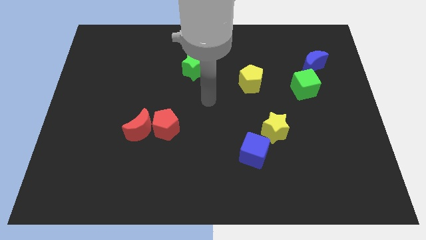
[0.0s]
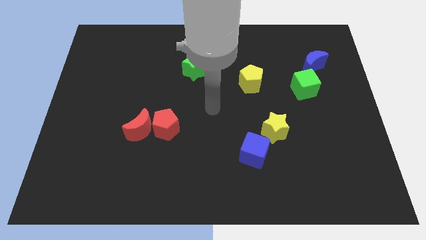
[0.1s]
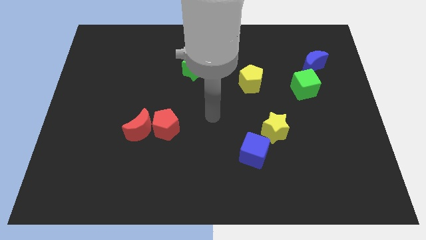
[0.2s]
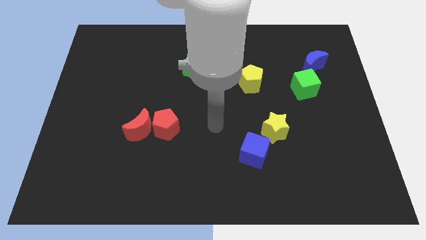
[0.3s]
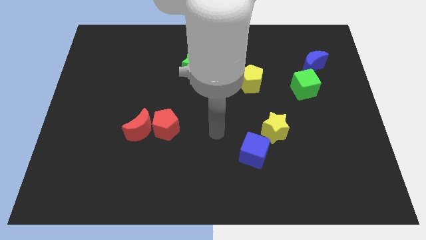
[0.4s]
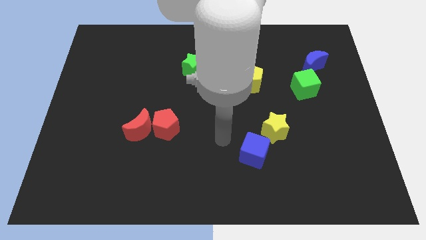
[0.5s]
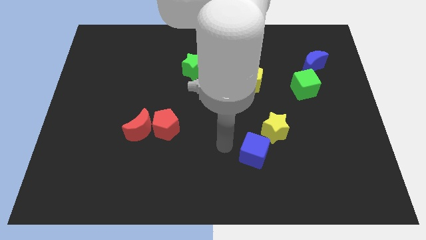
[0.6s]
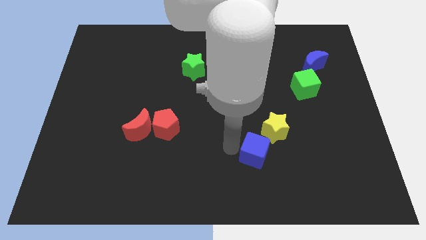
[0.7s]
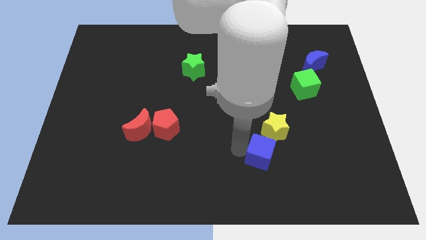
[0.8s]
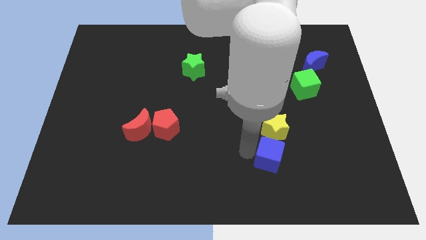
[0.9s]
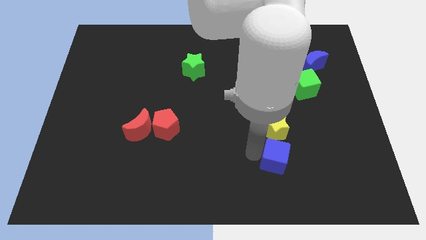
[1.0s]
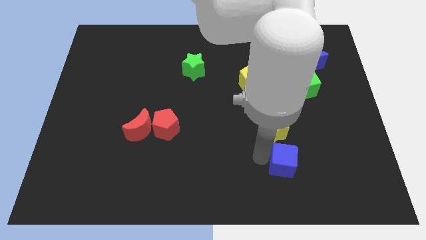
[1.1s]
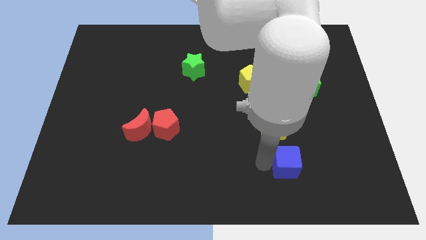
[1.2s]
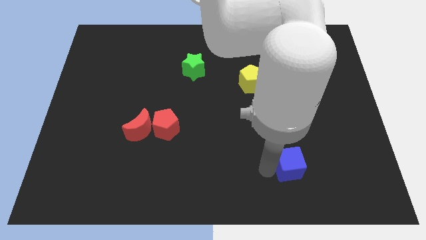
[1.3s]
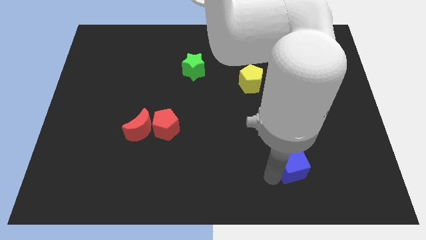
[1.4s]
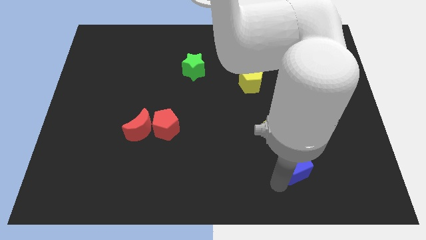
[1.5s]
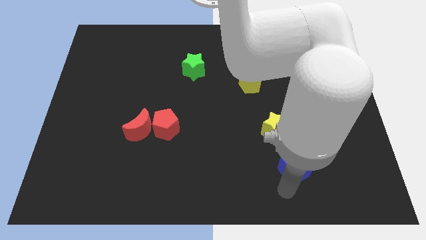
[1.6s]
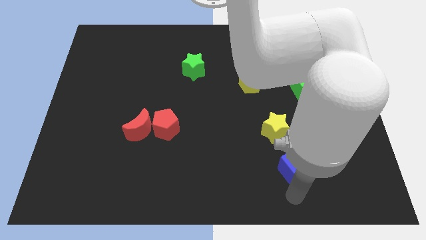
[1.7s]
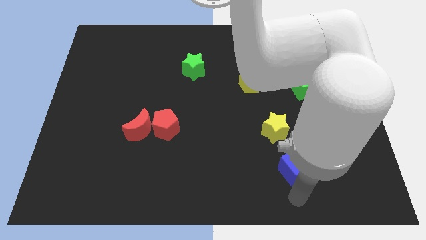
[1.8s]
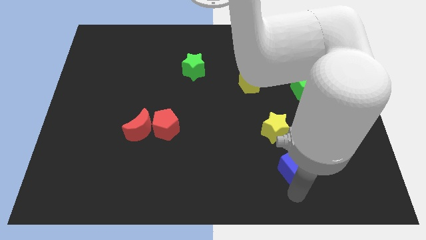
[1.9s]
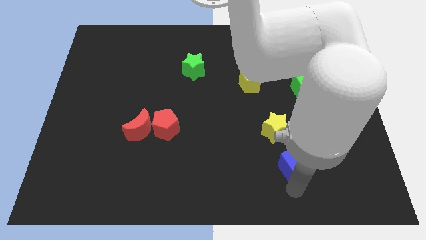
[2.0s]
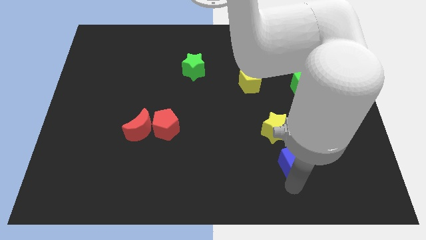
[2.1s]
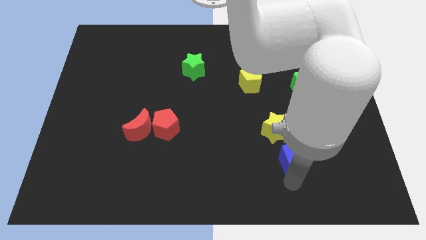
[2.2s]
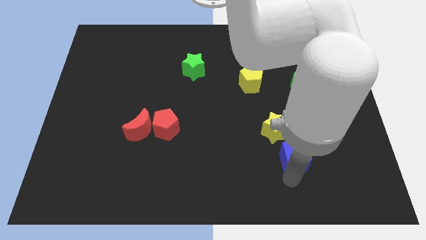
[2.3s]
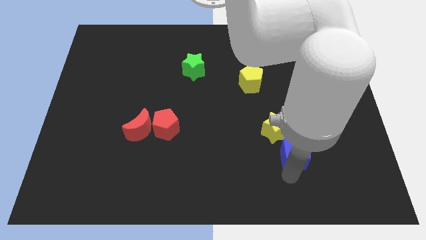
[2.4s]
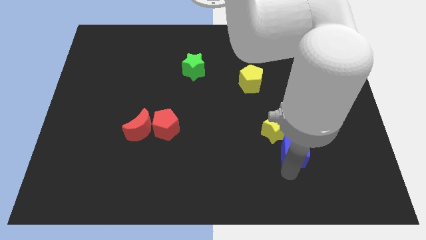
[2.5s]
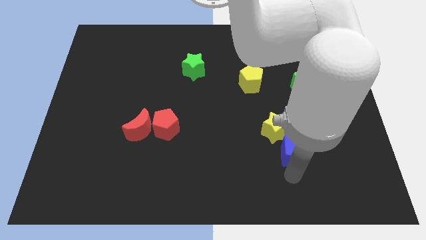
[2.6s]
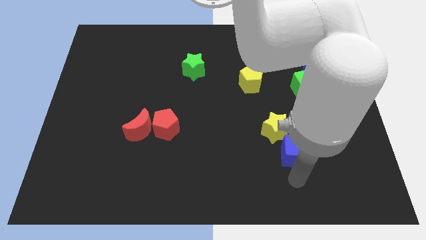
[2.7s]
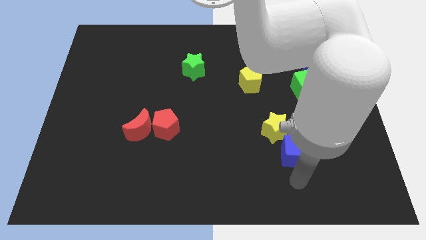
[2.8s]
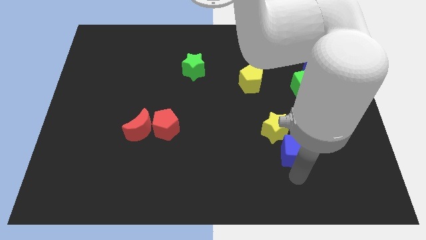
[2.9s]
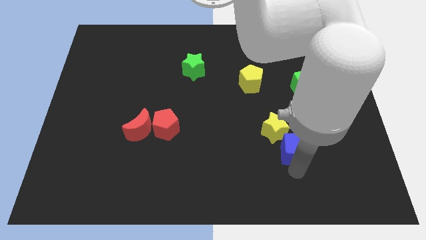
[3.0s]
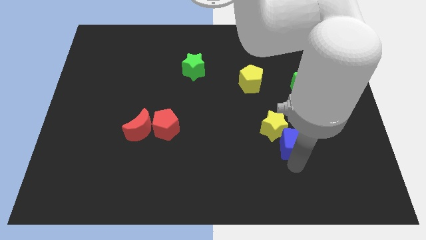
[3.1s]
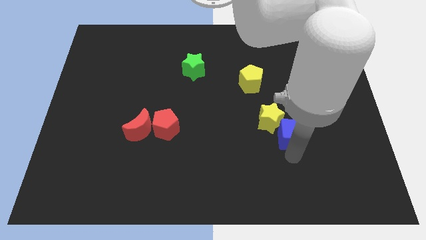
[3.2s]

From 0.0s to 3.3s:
push the blue cube diagonally upwards and to the right a little bit

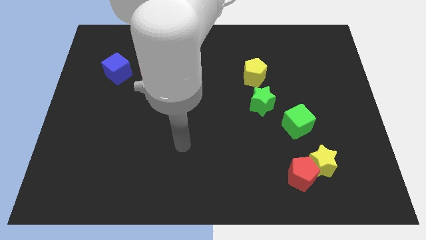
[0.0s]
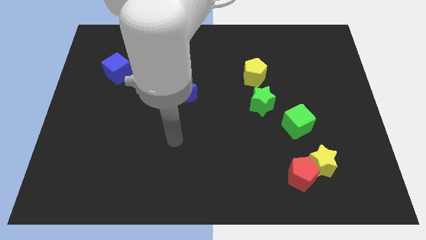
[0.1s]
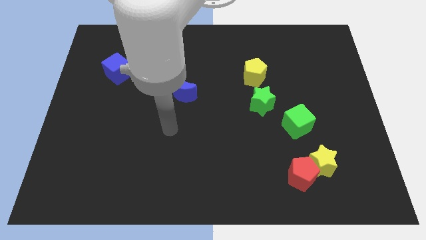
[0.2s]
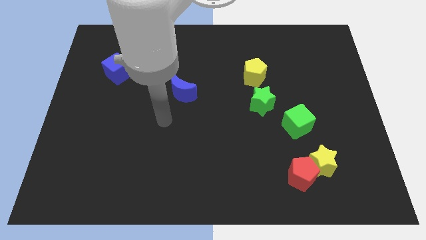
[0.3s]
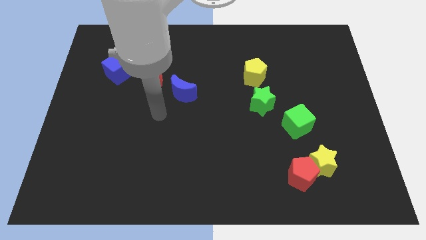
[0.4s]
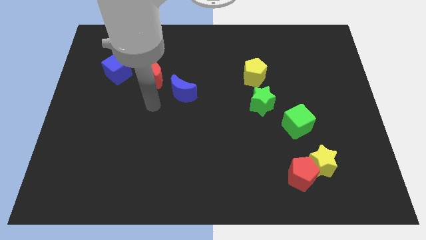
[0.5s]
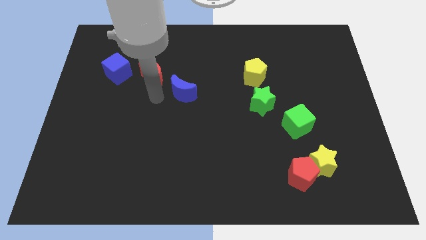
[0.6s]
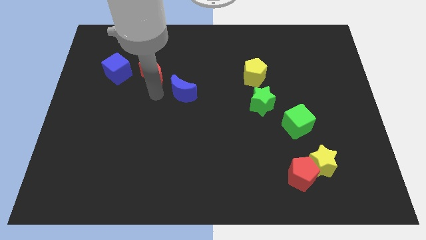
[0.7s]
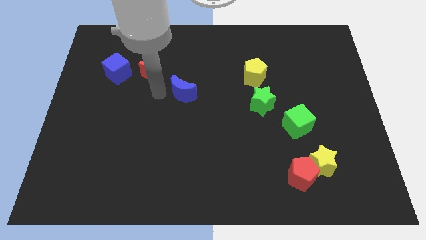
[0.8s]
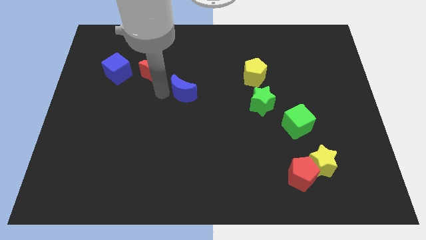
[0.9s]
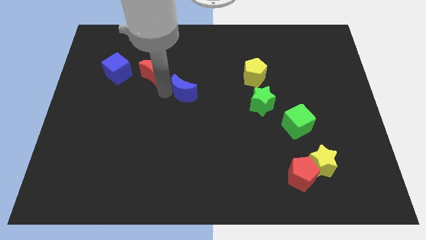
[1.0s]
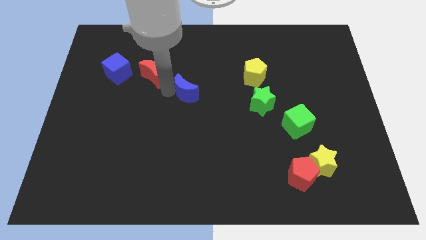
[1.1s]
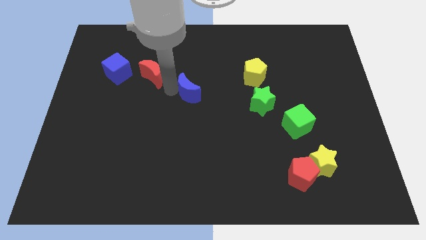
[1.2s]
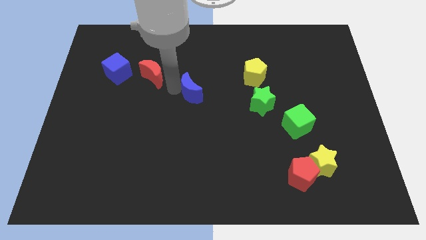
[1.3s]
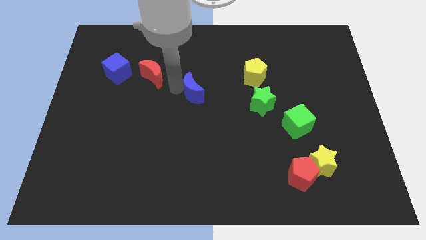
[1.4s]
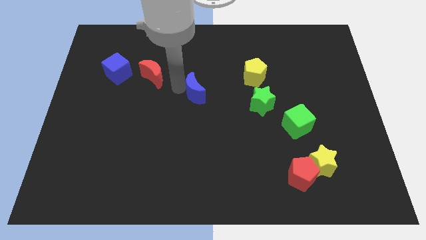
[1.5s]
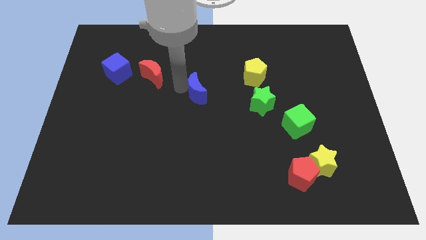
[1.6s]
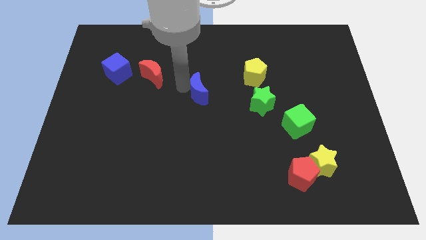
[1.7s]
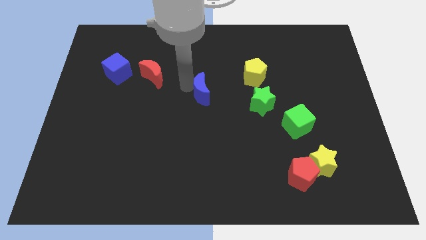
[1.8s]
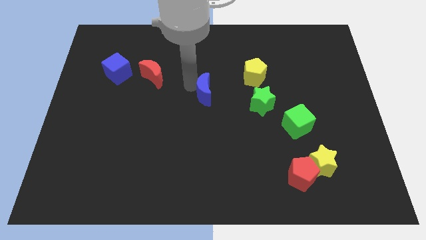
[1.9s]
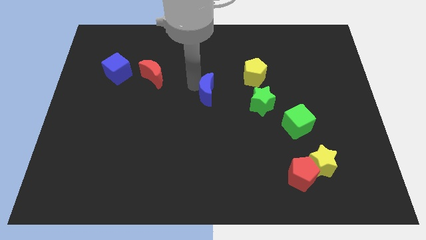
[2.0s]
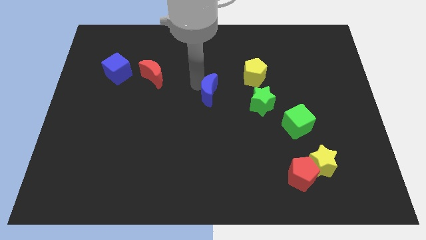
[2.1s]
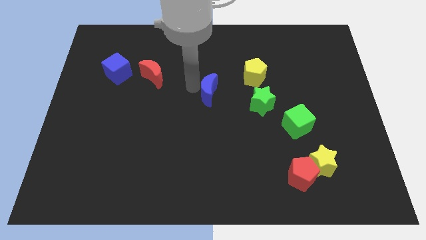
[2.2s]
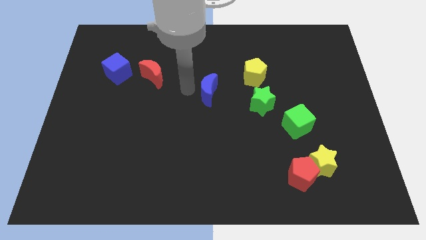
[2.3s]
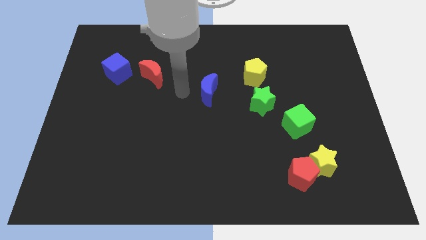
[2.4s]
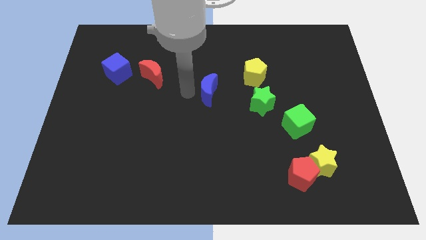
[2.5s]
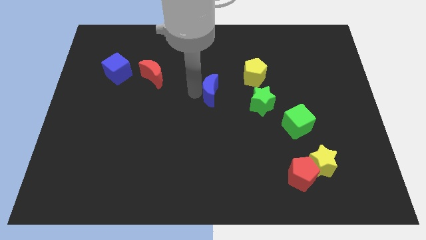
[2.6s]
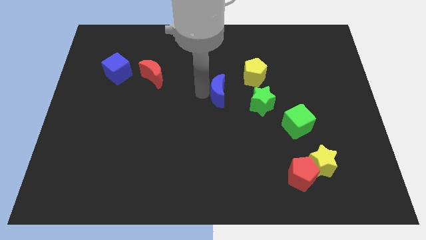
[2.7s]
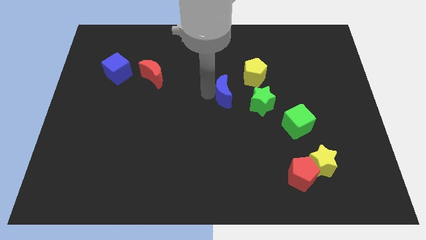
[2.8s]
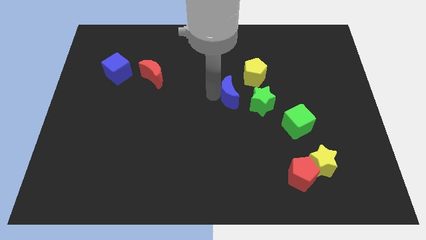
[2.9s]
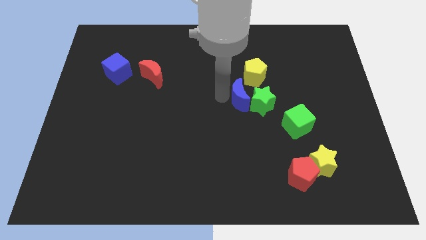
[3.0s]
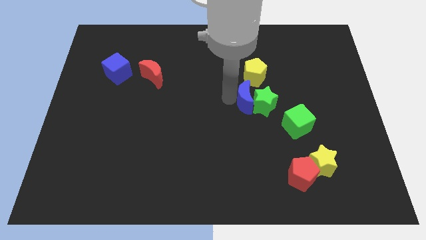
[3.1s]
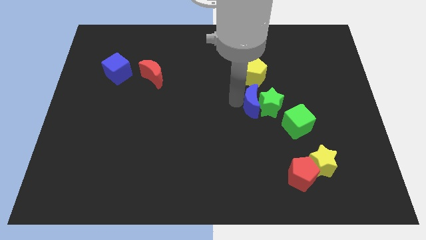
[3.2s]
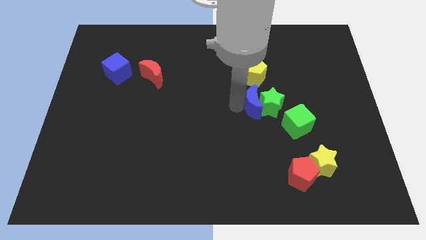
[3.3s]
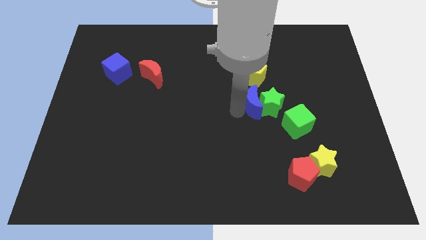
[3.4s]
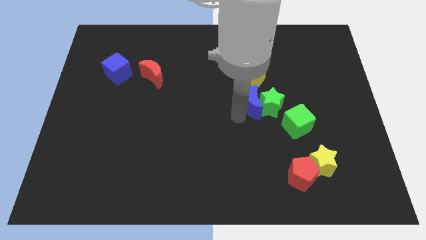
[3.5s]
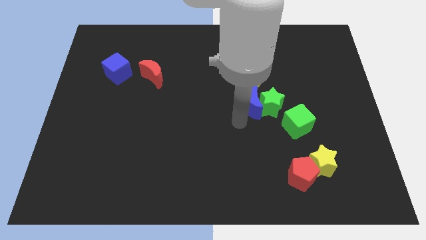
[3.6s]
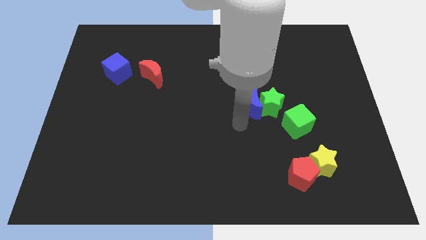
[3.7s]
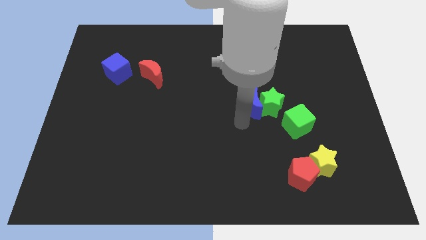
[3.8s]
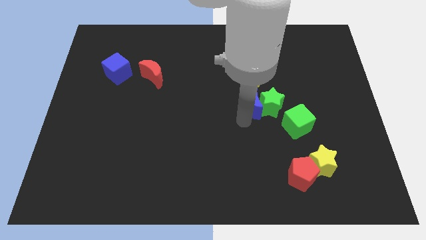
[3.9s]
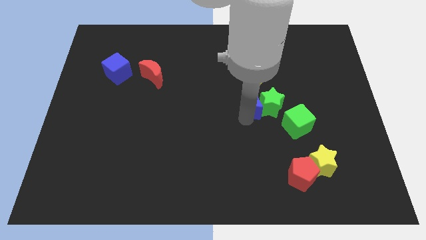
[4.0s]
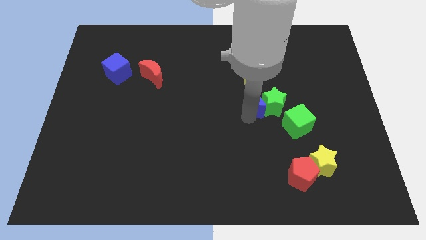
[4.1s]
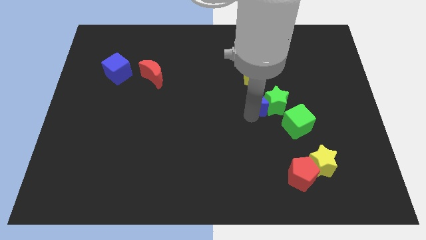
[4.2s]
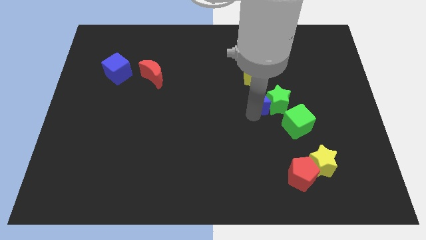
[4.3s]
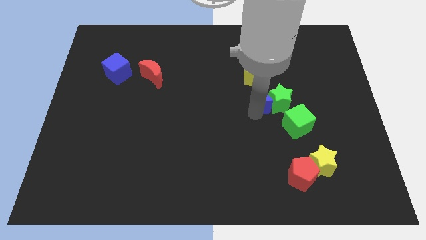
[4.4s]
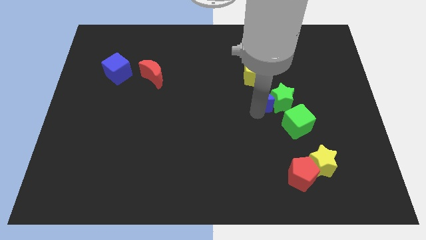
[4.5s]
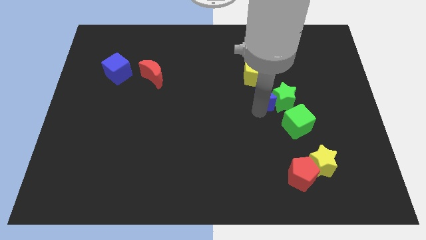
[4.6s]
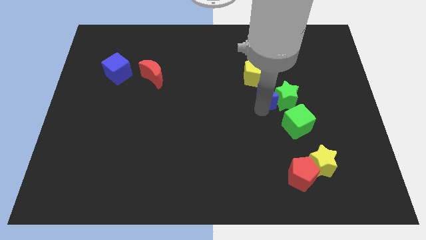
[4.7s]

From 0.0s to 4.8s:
push the blue moon to the right
